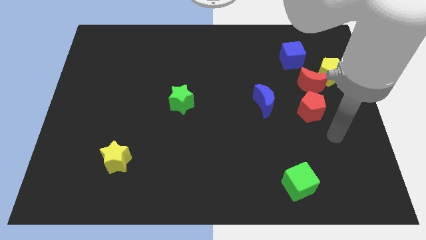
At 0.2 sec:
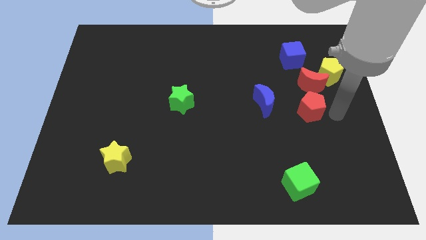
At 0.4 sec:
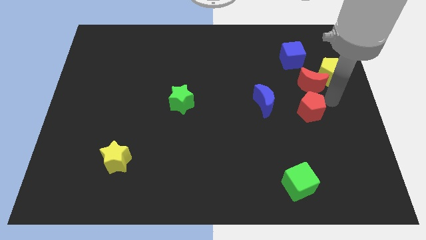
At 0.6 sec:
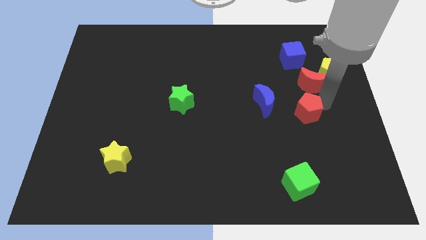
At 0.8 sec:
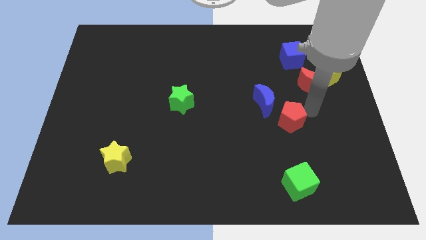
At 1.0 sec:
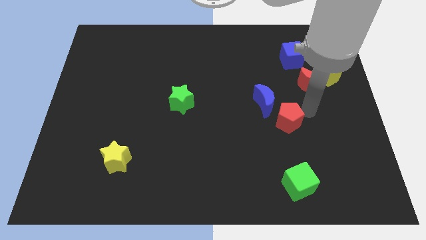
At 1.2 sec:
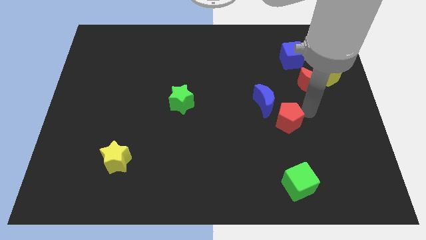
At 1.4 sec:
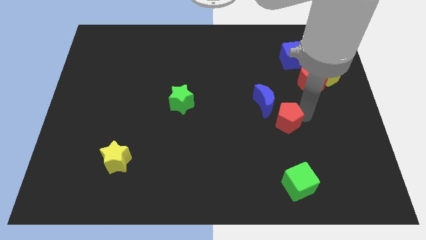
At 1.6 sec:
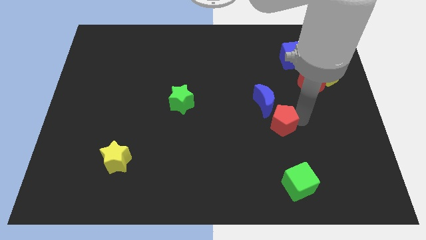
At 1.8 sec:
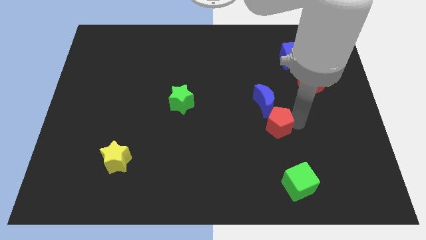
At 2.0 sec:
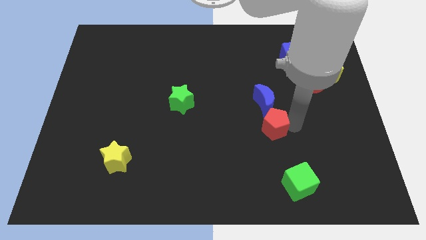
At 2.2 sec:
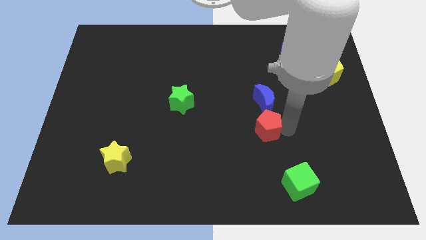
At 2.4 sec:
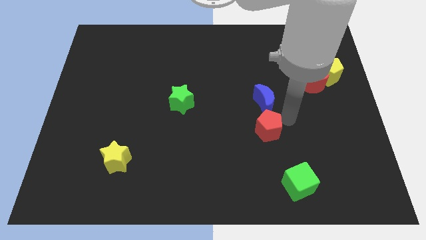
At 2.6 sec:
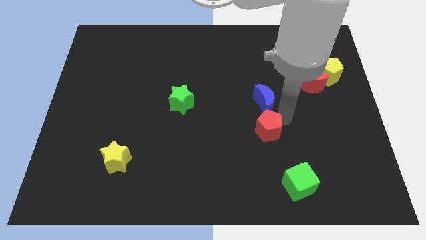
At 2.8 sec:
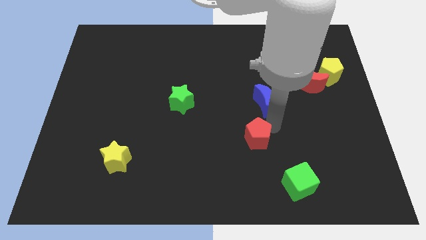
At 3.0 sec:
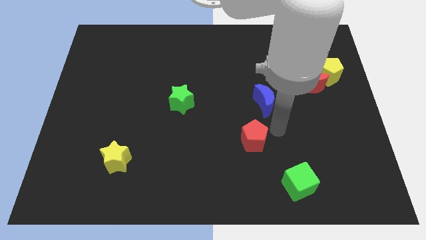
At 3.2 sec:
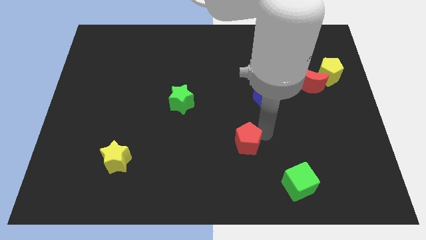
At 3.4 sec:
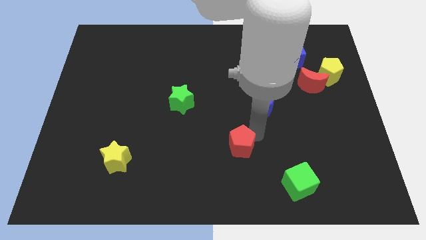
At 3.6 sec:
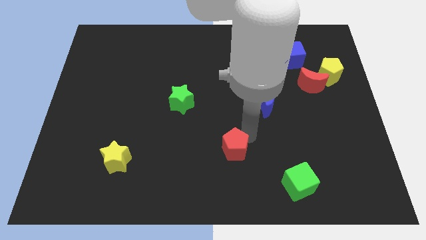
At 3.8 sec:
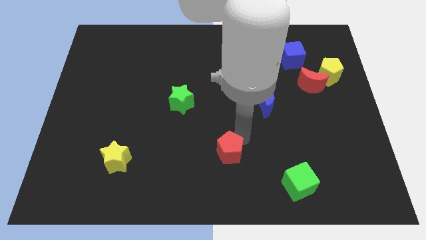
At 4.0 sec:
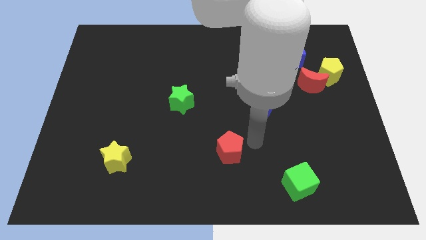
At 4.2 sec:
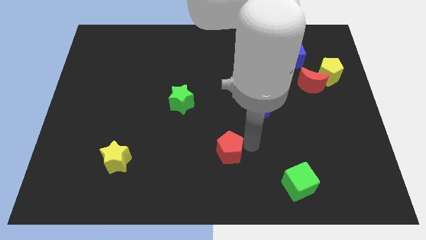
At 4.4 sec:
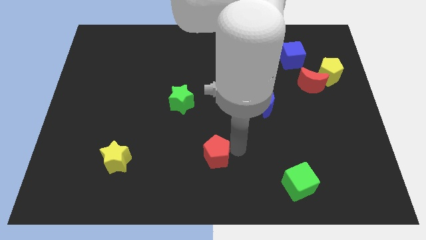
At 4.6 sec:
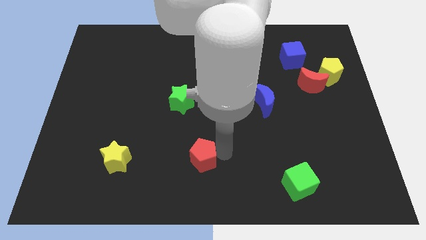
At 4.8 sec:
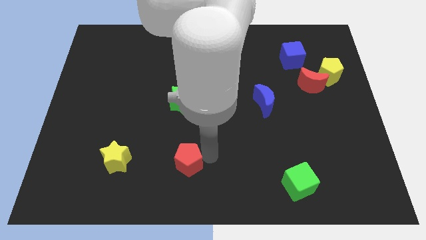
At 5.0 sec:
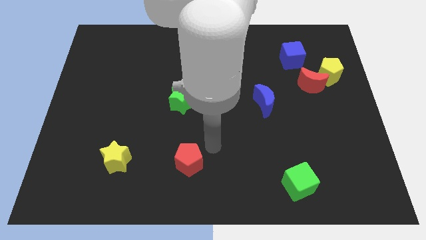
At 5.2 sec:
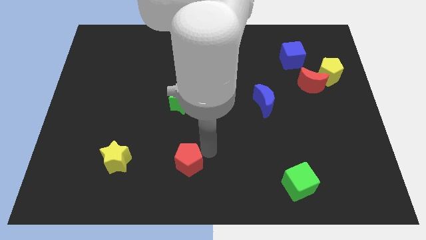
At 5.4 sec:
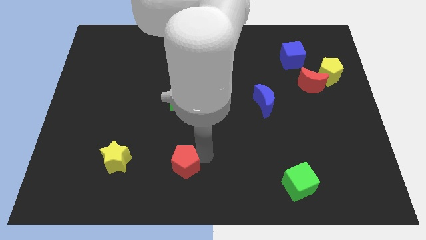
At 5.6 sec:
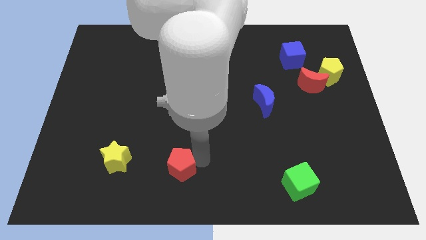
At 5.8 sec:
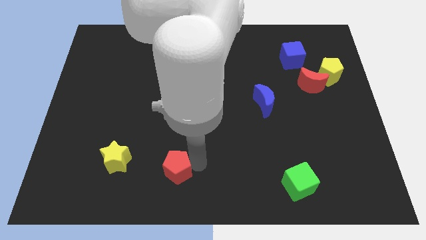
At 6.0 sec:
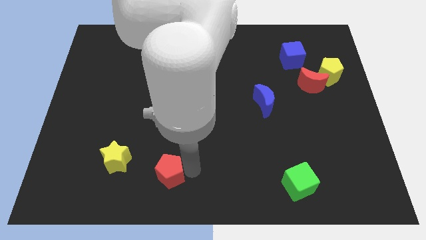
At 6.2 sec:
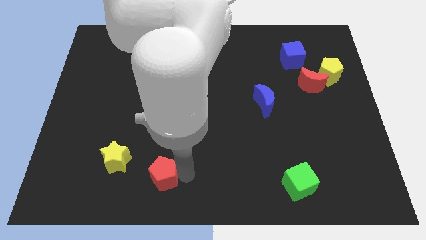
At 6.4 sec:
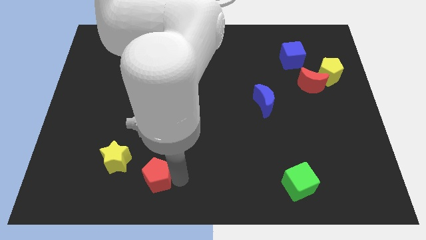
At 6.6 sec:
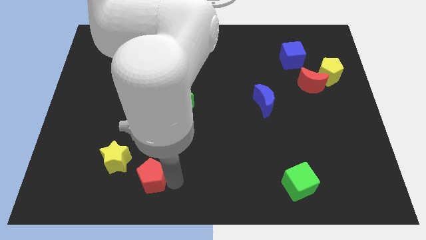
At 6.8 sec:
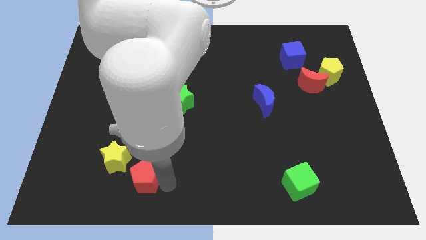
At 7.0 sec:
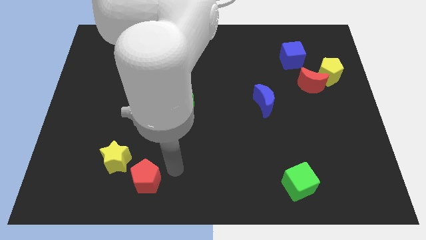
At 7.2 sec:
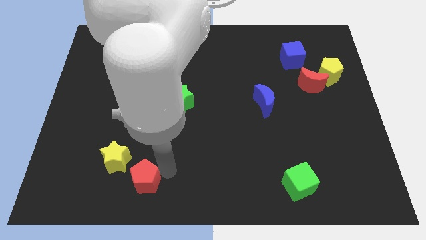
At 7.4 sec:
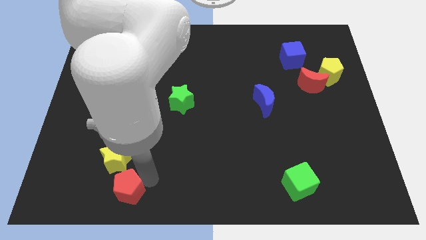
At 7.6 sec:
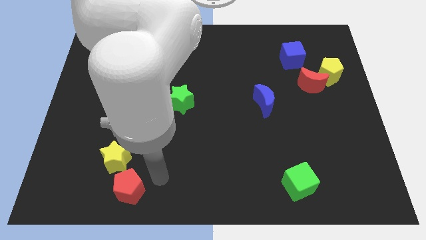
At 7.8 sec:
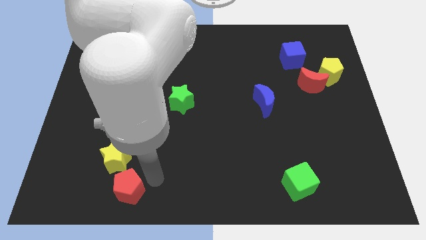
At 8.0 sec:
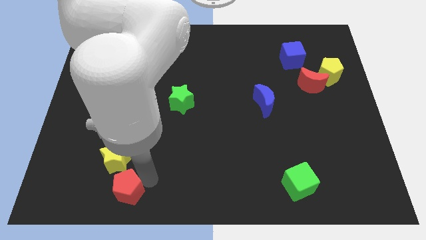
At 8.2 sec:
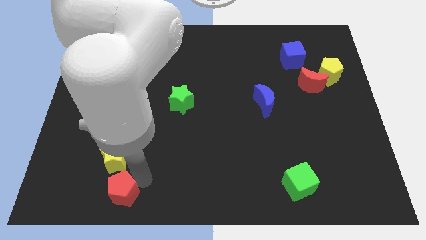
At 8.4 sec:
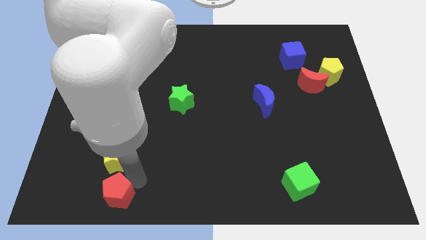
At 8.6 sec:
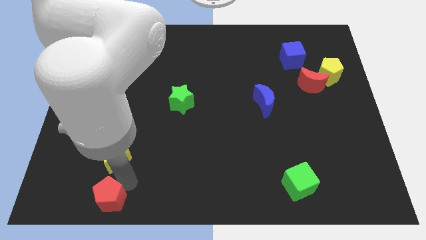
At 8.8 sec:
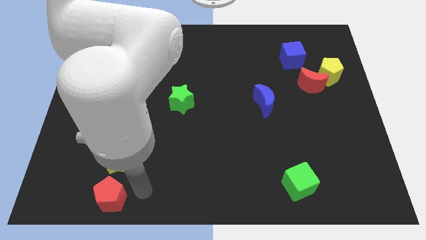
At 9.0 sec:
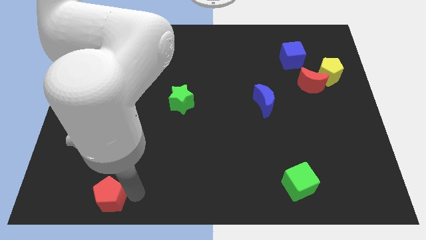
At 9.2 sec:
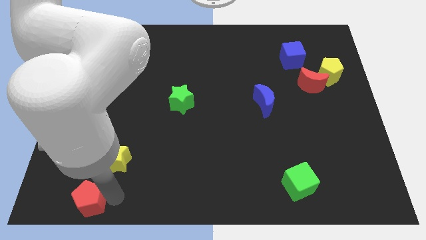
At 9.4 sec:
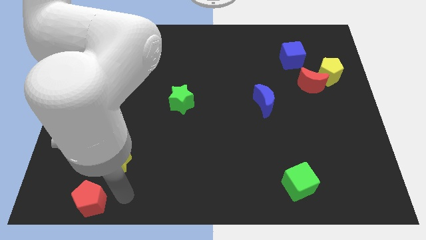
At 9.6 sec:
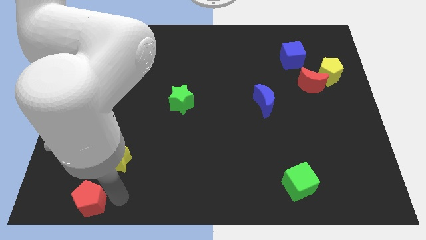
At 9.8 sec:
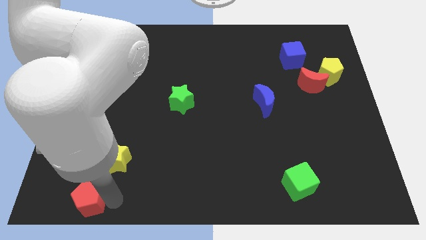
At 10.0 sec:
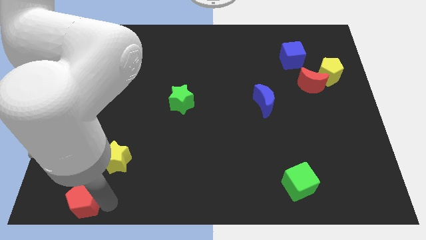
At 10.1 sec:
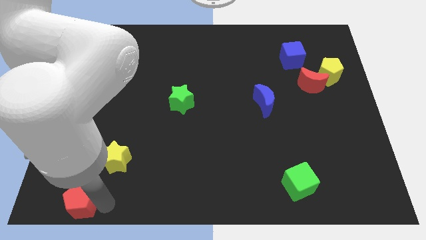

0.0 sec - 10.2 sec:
push the red pentagon to the bottom left
